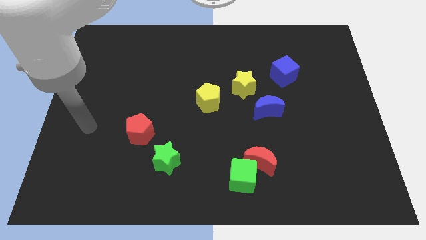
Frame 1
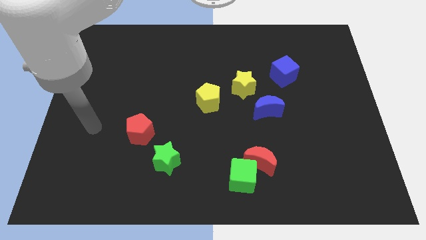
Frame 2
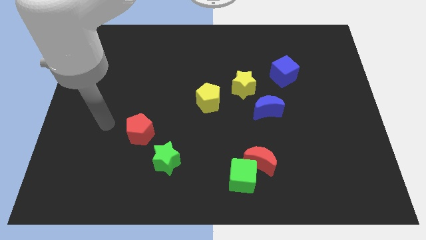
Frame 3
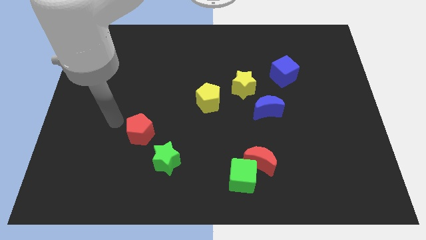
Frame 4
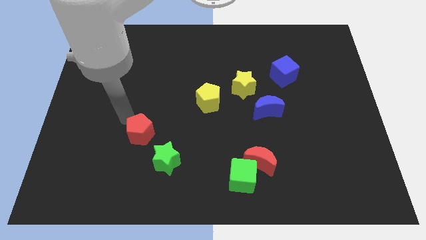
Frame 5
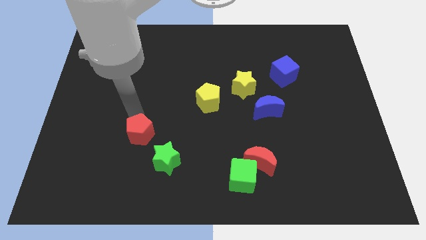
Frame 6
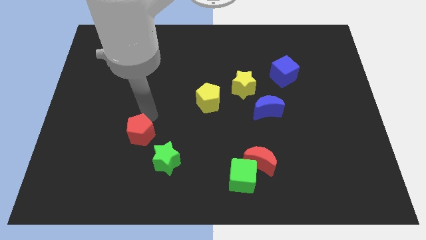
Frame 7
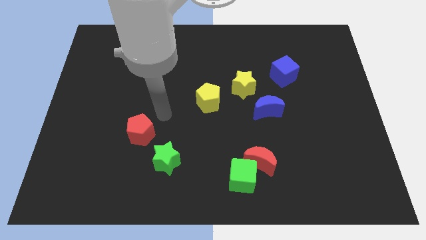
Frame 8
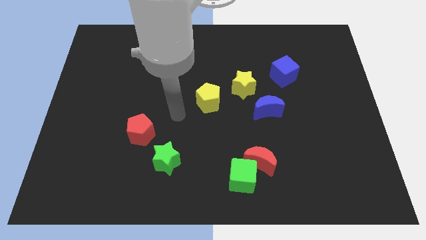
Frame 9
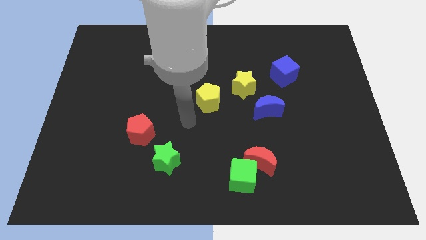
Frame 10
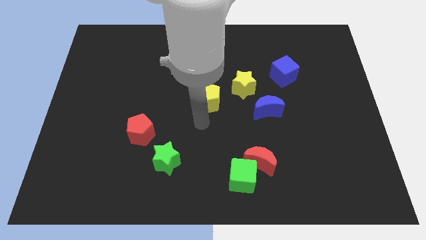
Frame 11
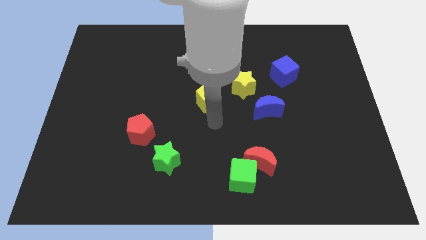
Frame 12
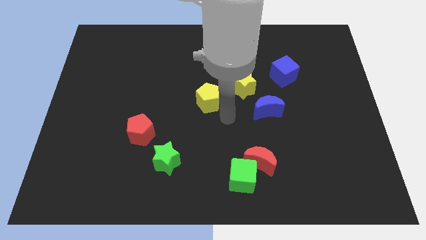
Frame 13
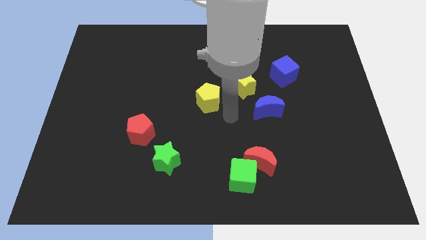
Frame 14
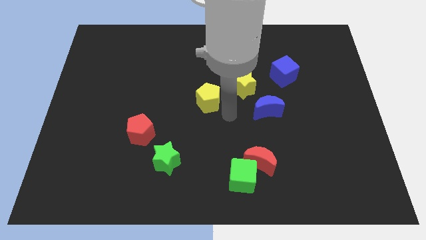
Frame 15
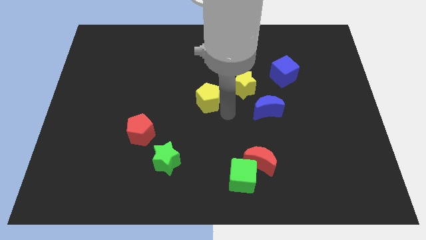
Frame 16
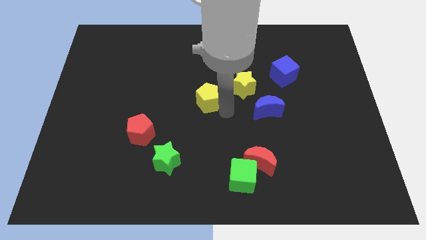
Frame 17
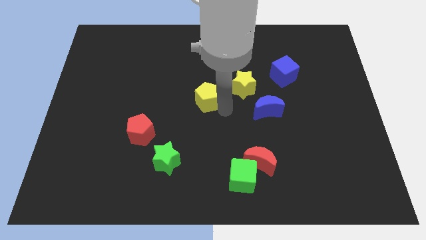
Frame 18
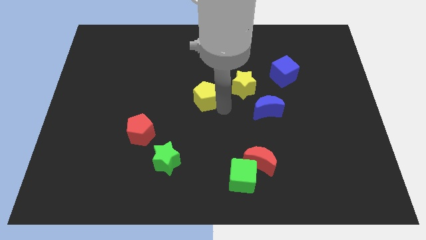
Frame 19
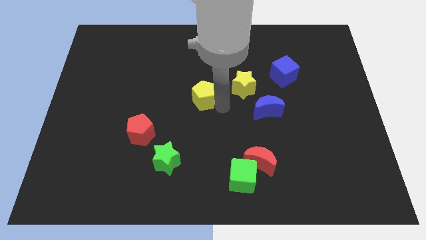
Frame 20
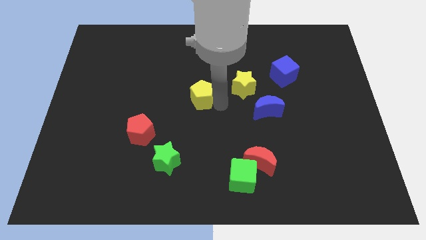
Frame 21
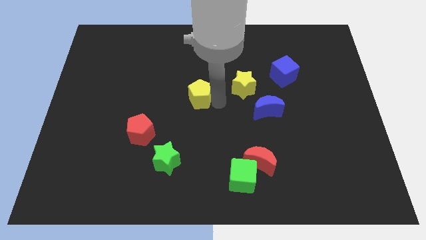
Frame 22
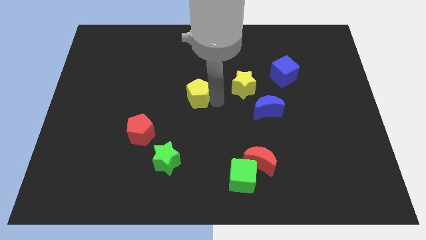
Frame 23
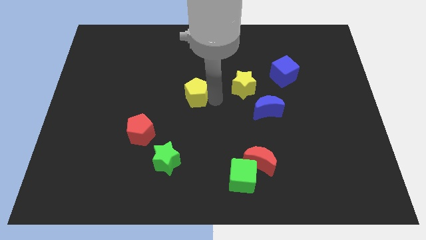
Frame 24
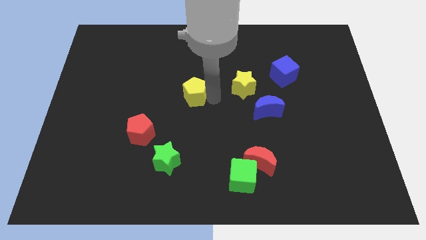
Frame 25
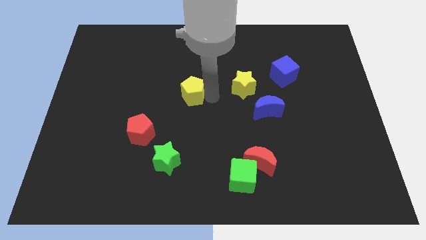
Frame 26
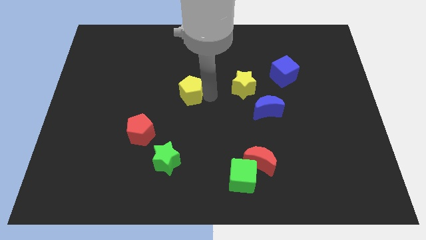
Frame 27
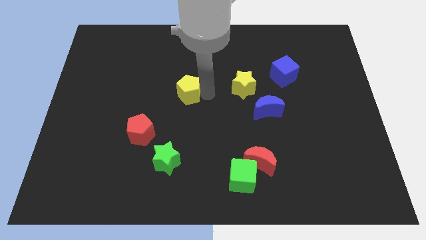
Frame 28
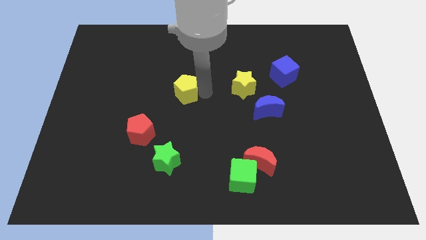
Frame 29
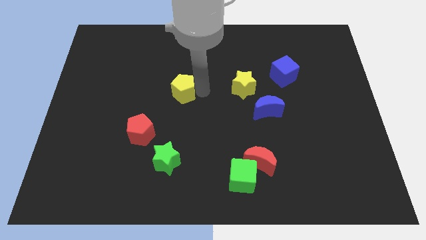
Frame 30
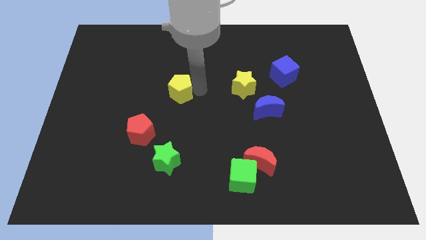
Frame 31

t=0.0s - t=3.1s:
move the yellow pentagon up and then left slightly

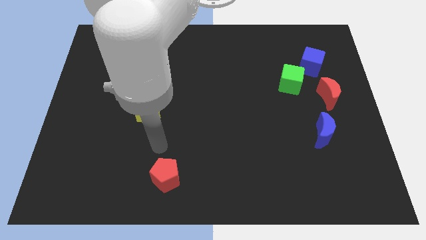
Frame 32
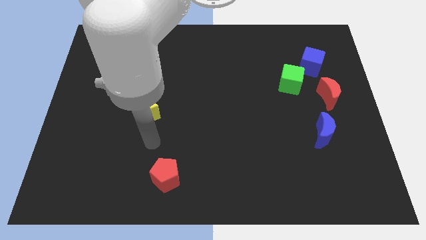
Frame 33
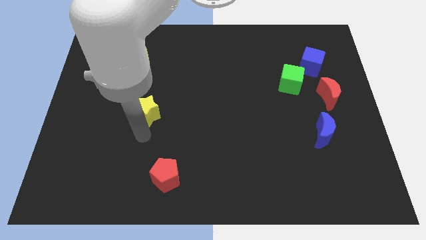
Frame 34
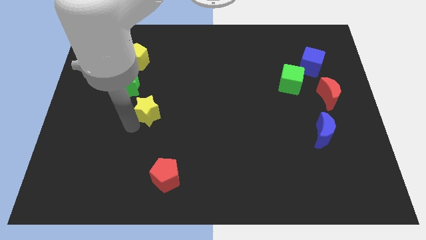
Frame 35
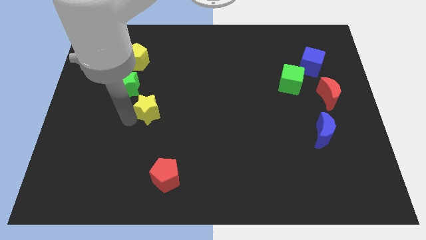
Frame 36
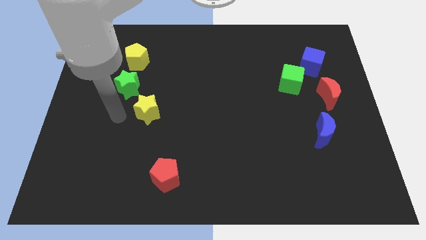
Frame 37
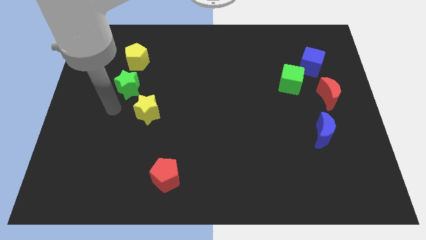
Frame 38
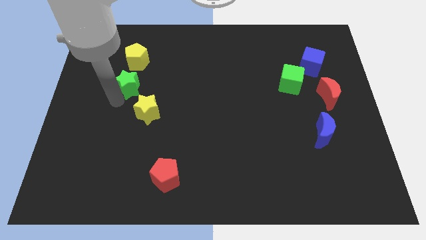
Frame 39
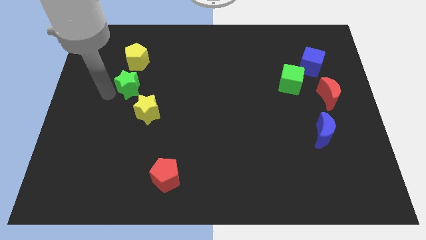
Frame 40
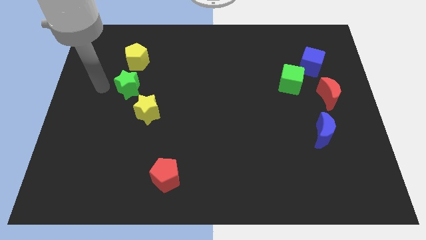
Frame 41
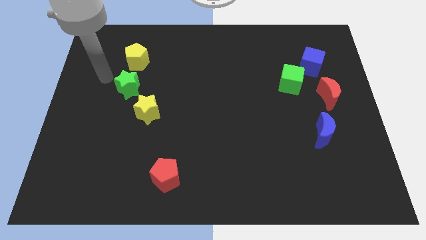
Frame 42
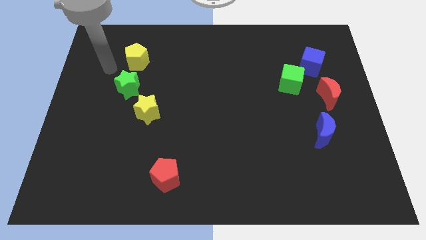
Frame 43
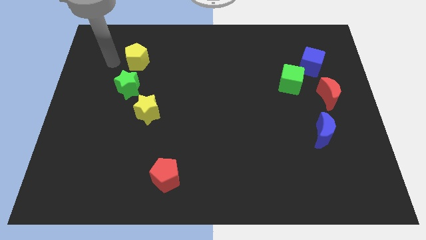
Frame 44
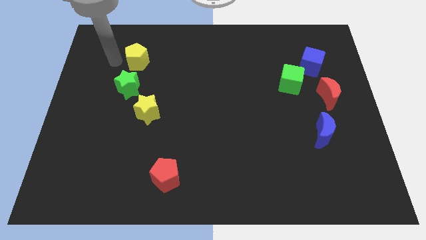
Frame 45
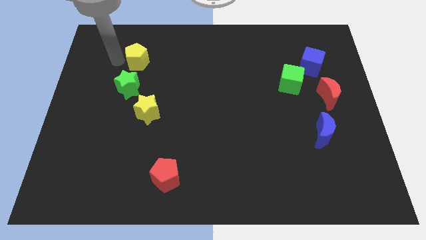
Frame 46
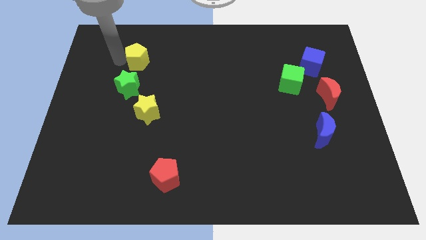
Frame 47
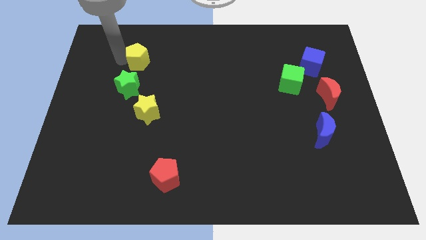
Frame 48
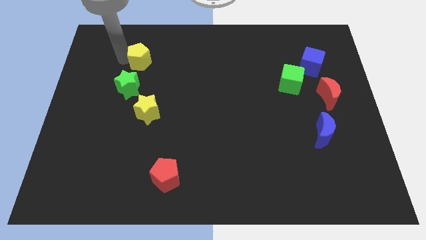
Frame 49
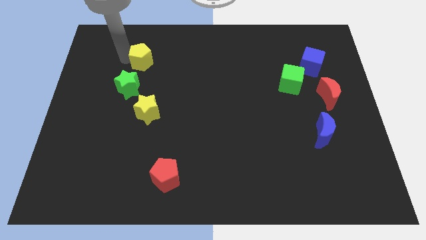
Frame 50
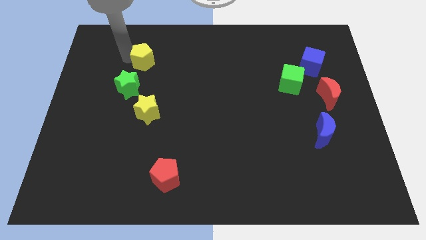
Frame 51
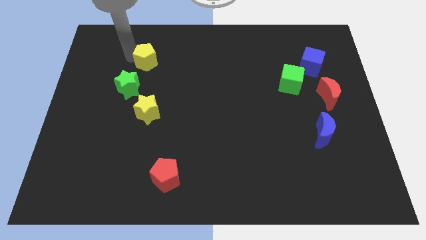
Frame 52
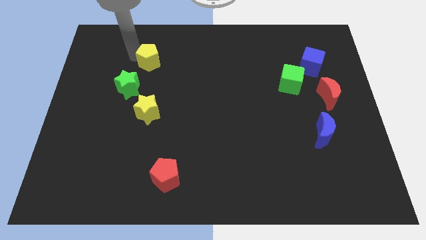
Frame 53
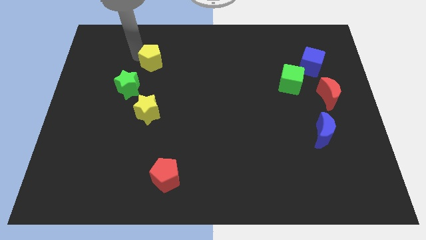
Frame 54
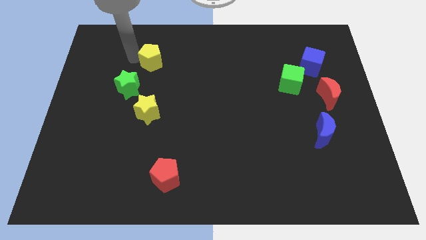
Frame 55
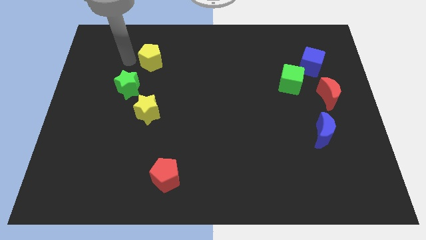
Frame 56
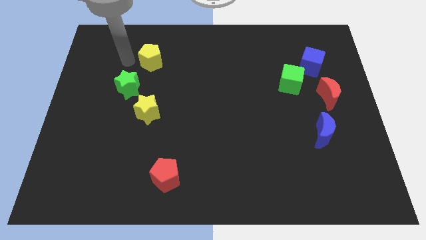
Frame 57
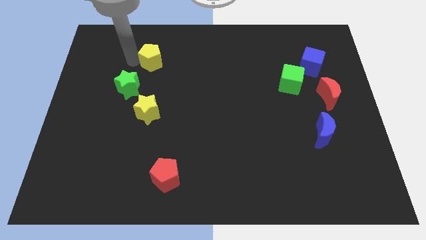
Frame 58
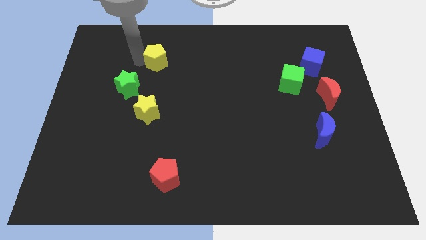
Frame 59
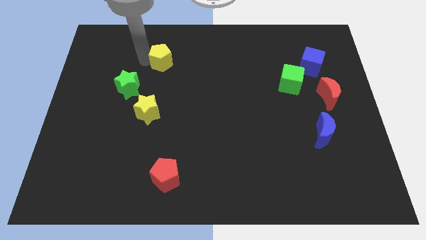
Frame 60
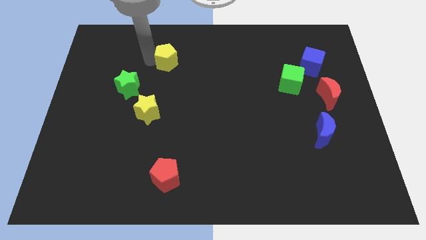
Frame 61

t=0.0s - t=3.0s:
move the yellow pentagon a little right

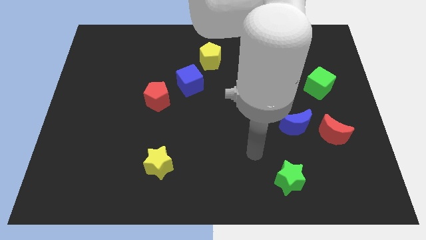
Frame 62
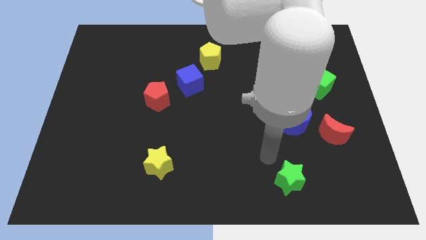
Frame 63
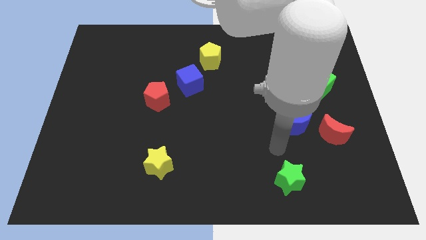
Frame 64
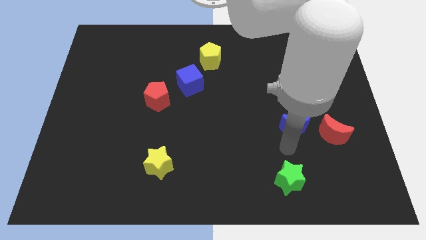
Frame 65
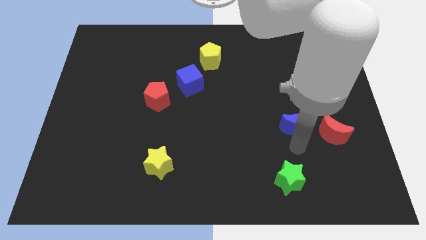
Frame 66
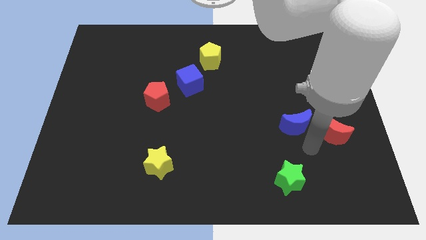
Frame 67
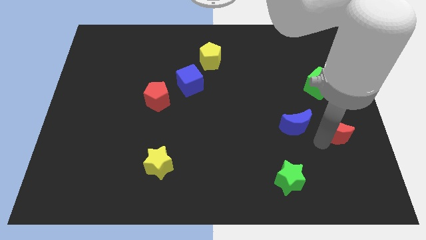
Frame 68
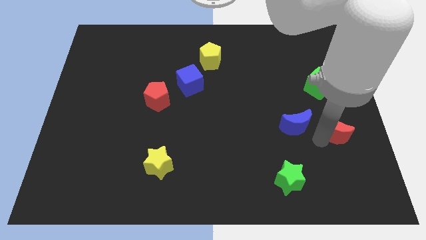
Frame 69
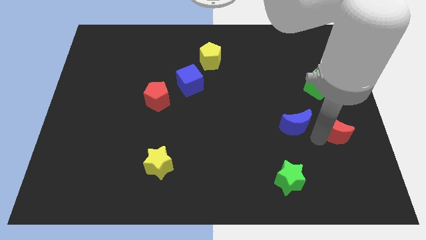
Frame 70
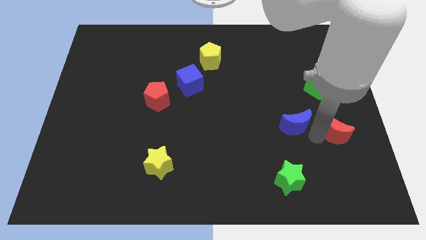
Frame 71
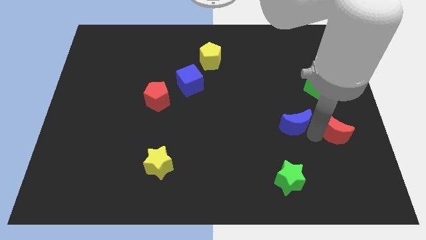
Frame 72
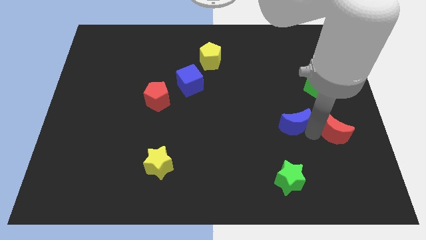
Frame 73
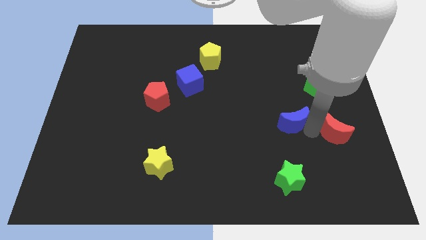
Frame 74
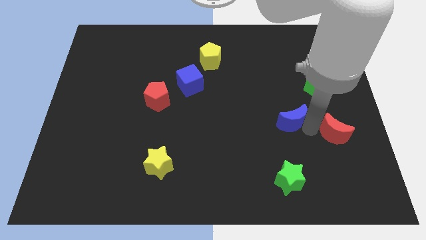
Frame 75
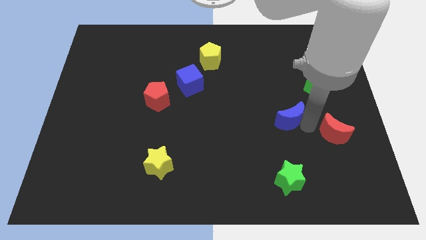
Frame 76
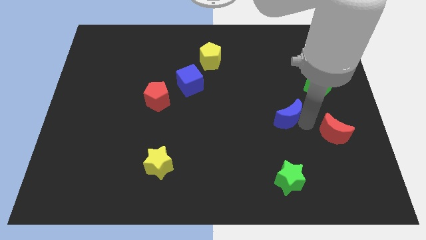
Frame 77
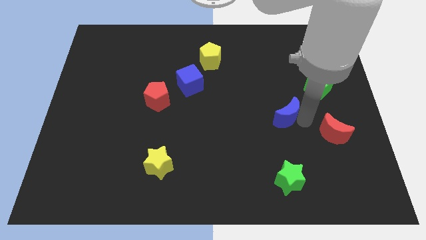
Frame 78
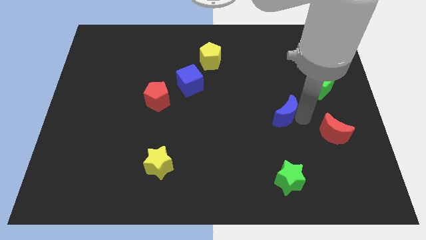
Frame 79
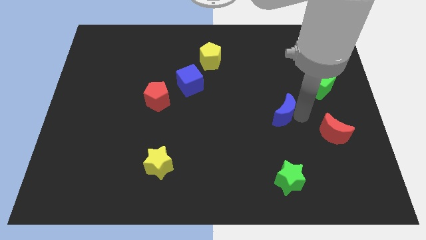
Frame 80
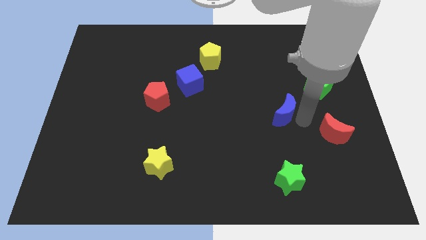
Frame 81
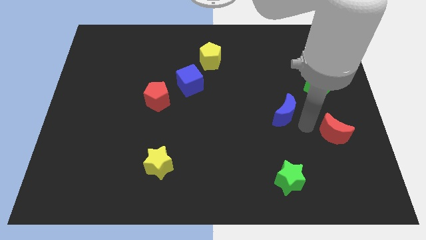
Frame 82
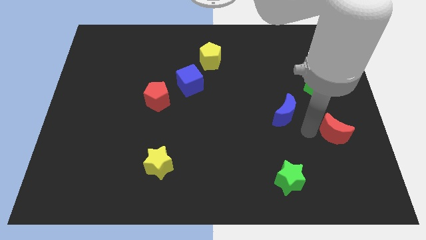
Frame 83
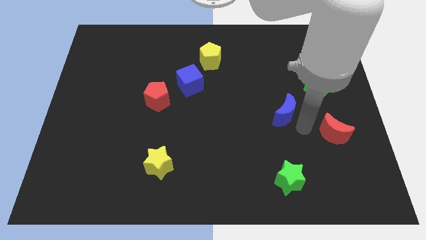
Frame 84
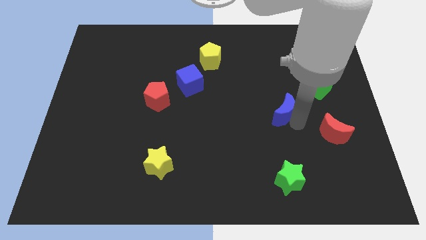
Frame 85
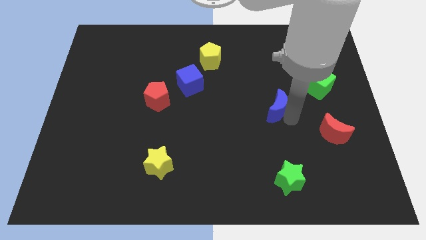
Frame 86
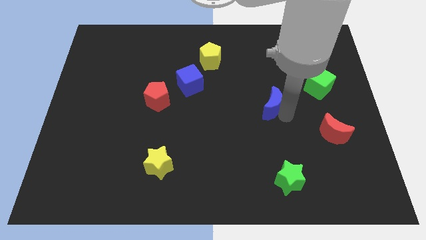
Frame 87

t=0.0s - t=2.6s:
slide the blue moon diagonally up and to the left a little
